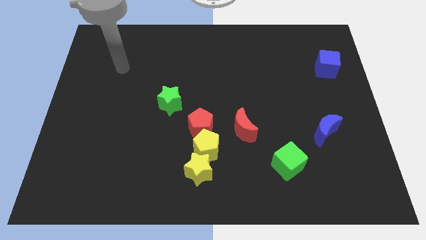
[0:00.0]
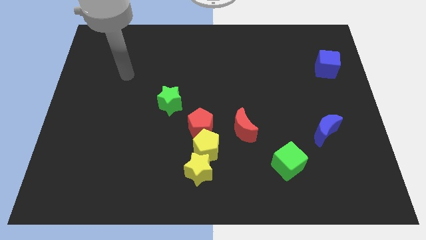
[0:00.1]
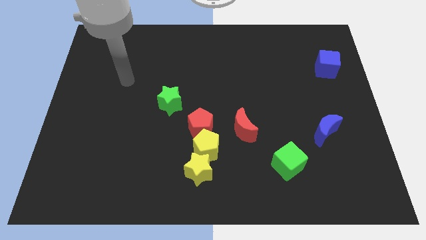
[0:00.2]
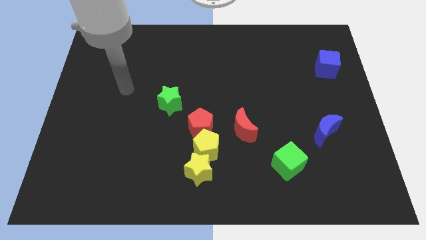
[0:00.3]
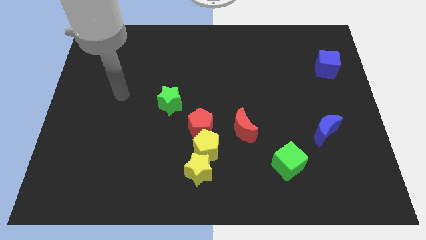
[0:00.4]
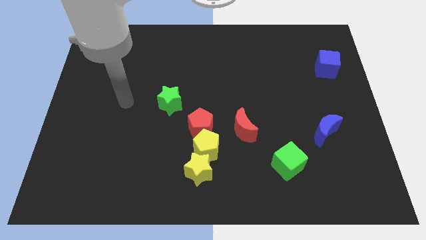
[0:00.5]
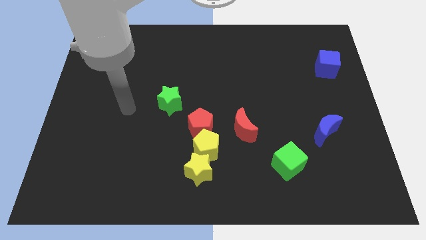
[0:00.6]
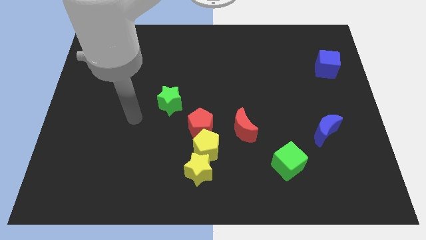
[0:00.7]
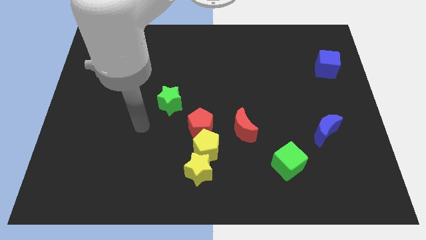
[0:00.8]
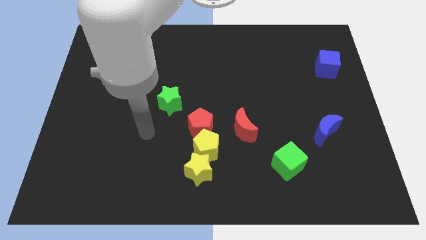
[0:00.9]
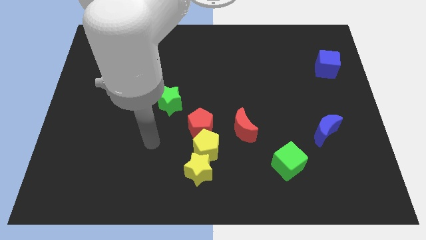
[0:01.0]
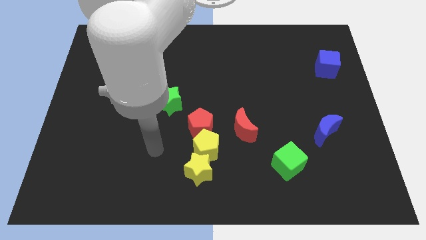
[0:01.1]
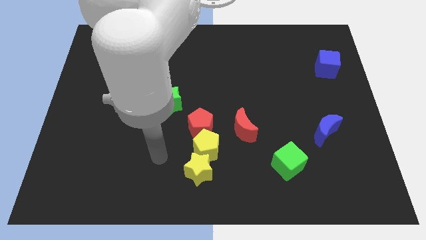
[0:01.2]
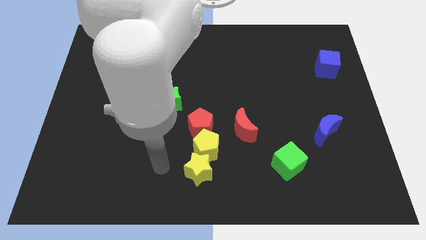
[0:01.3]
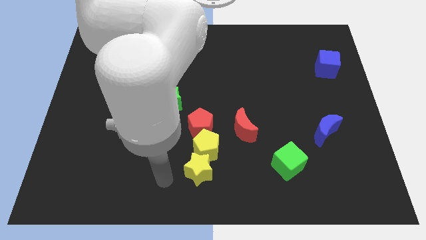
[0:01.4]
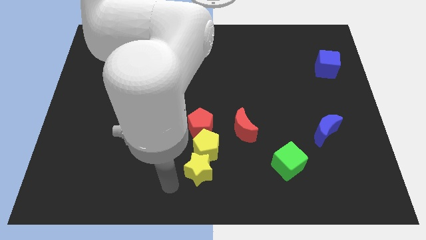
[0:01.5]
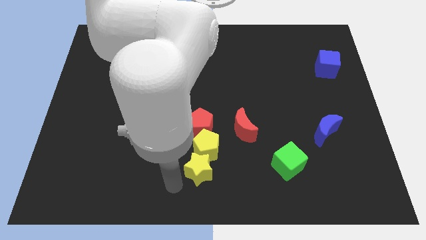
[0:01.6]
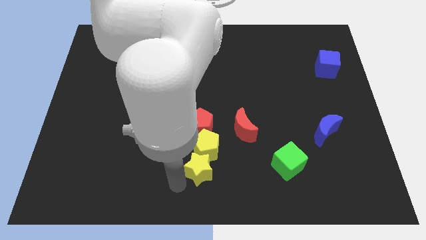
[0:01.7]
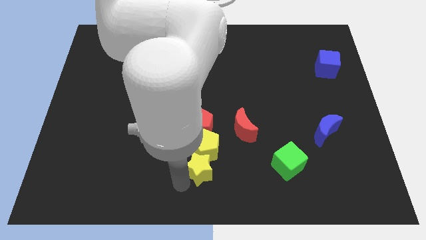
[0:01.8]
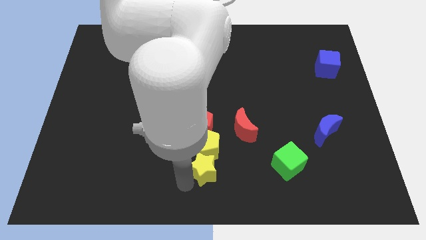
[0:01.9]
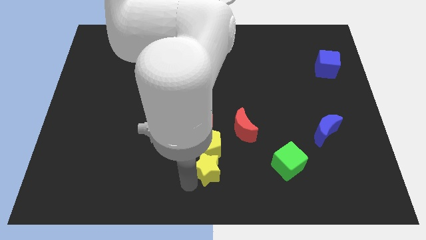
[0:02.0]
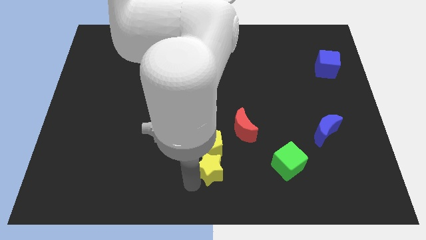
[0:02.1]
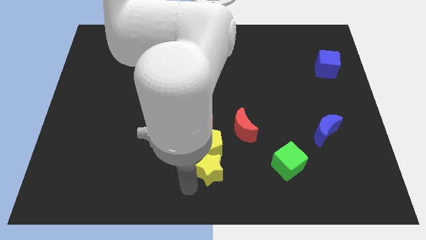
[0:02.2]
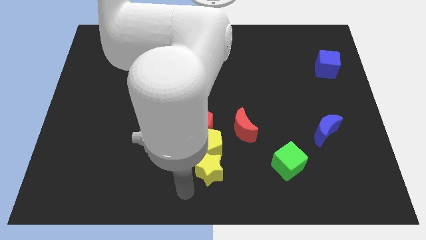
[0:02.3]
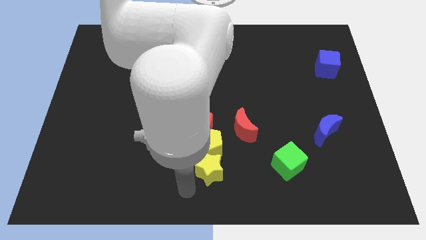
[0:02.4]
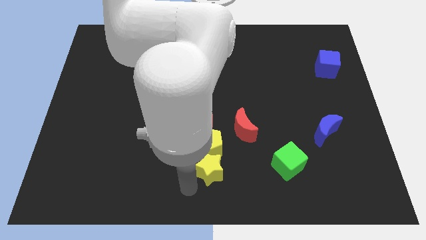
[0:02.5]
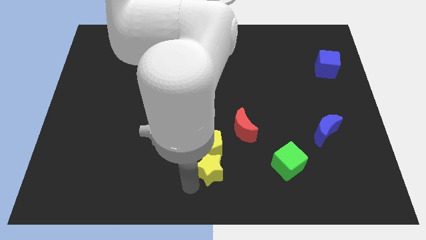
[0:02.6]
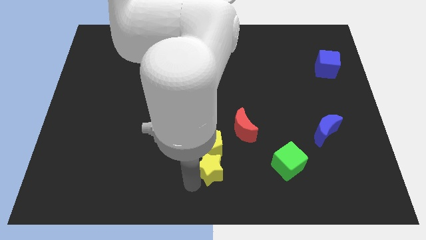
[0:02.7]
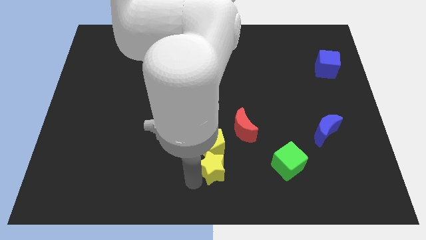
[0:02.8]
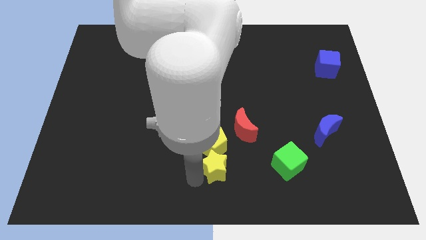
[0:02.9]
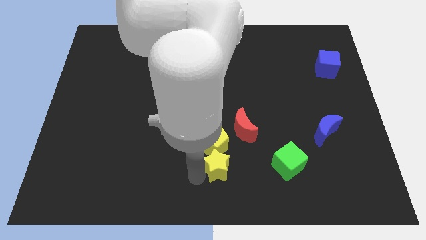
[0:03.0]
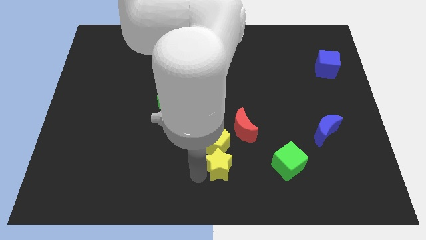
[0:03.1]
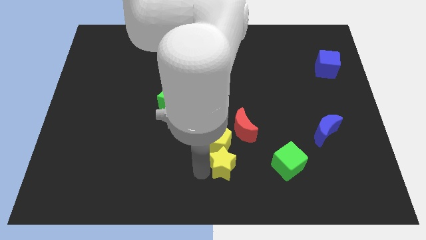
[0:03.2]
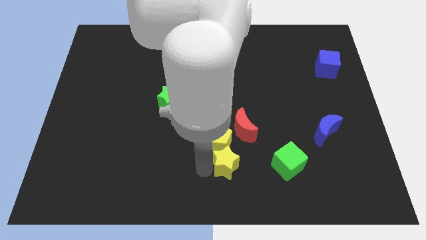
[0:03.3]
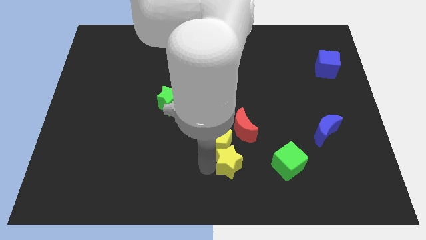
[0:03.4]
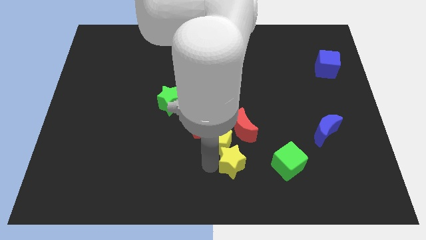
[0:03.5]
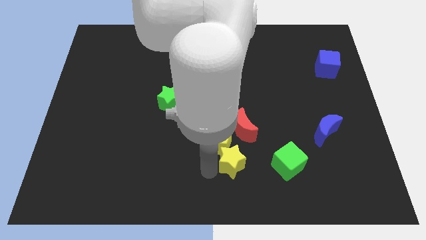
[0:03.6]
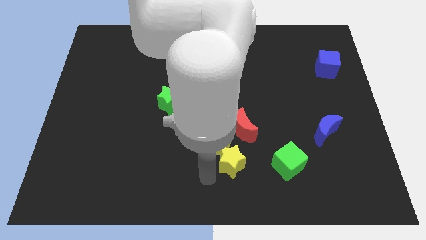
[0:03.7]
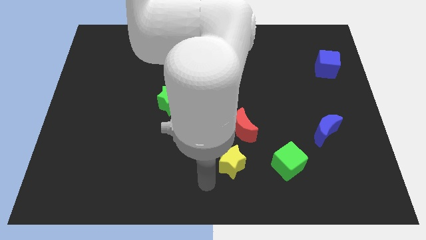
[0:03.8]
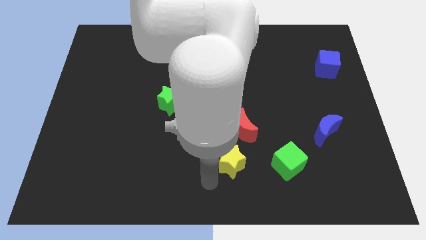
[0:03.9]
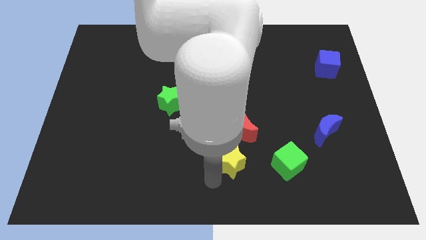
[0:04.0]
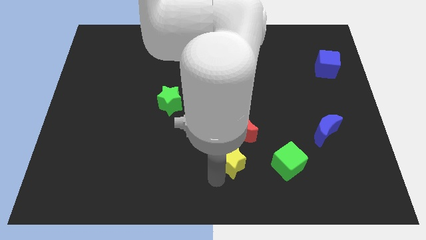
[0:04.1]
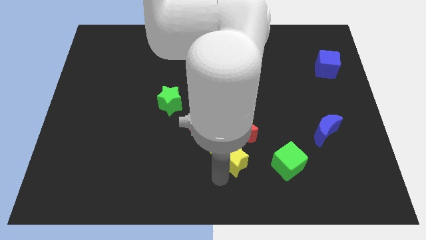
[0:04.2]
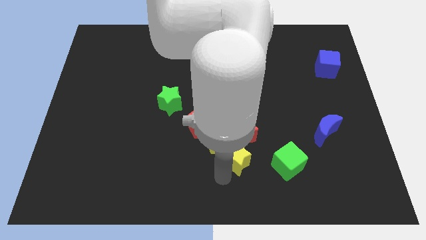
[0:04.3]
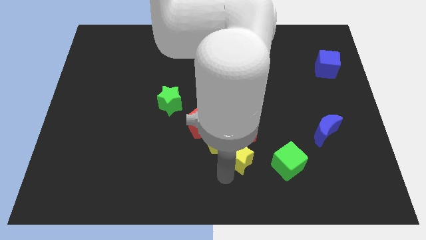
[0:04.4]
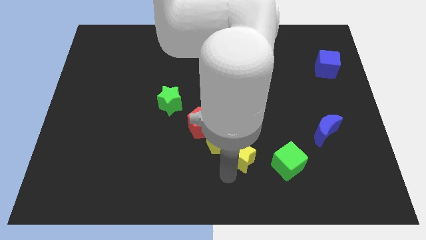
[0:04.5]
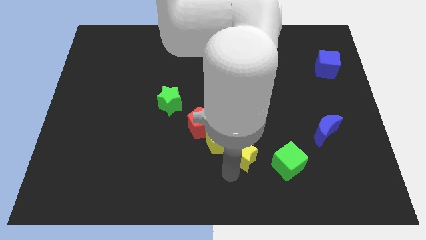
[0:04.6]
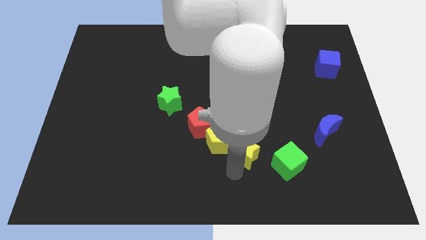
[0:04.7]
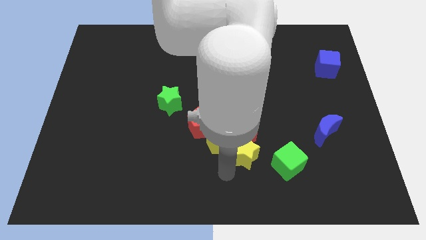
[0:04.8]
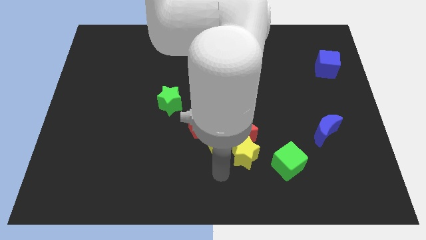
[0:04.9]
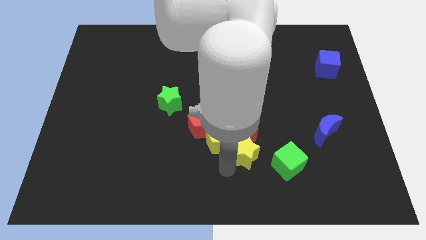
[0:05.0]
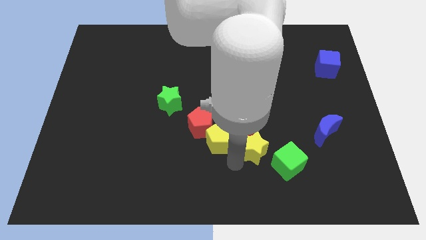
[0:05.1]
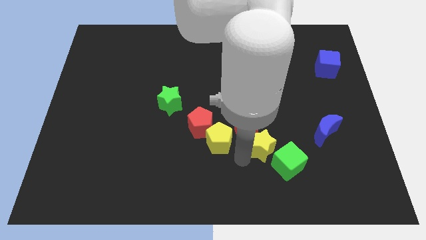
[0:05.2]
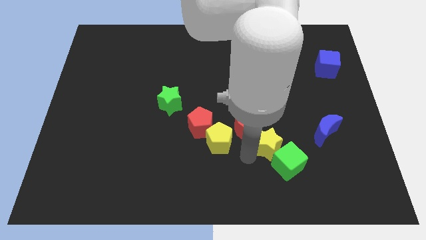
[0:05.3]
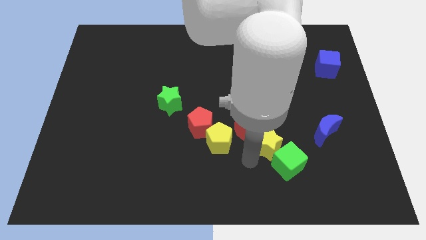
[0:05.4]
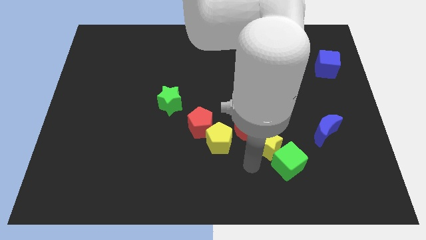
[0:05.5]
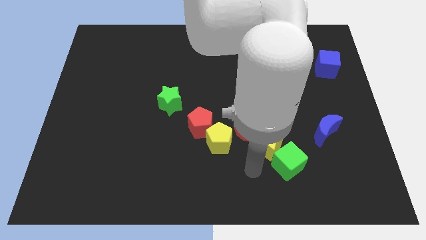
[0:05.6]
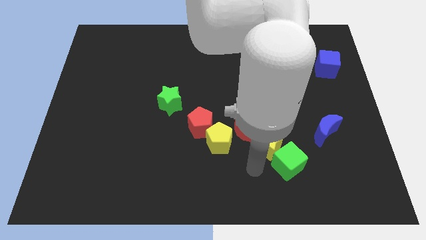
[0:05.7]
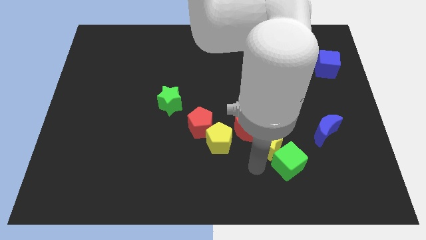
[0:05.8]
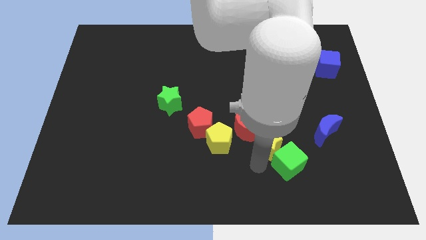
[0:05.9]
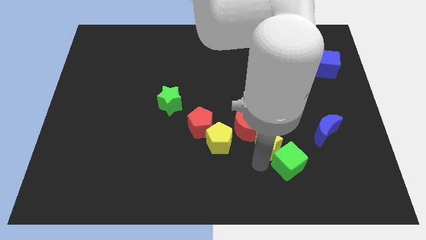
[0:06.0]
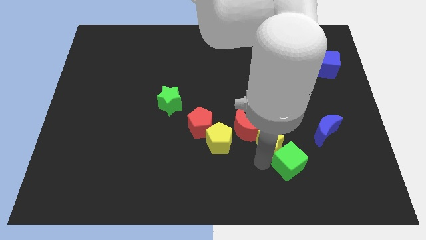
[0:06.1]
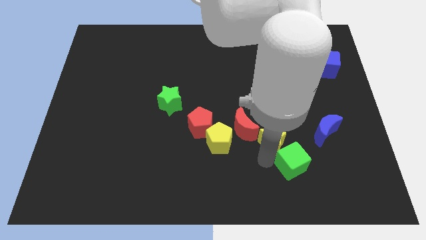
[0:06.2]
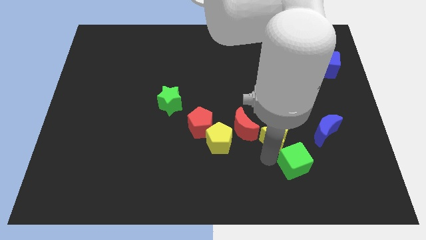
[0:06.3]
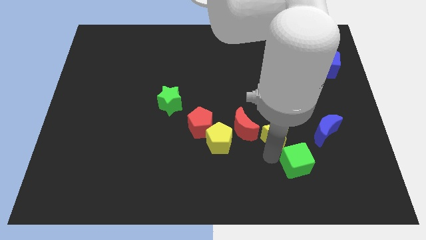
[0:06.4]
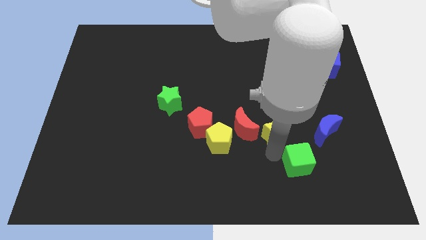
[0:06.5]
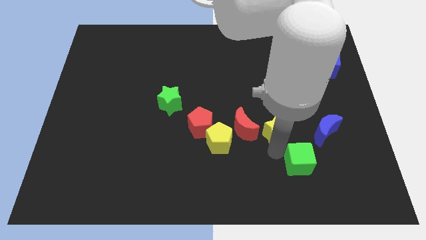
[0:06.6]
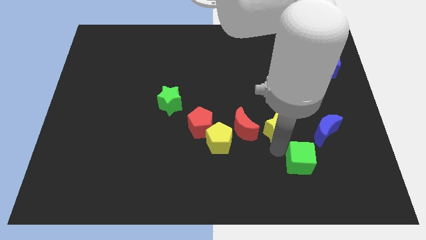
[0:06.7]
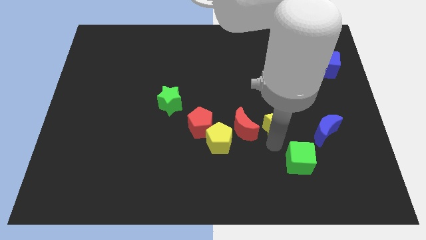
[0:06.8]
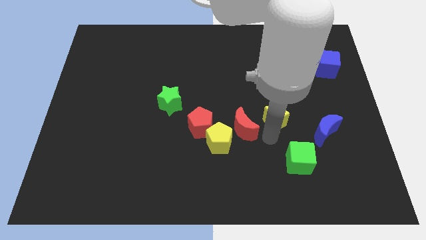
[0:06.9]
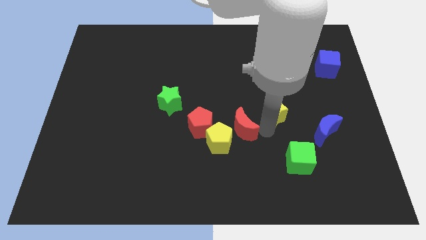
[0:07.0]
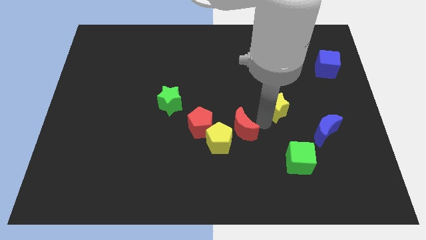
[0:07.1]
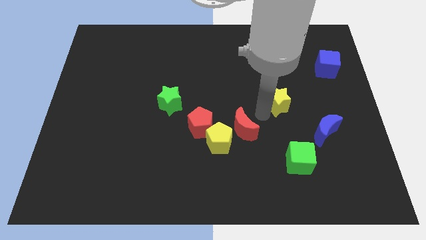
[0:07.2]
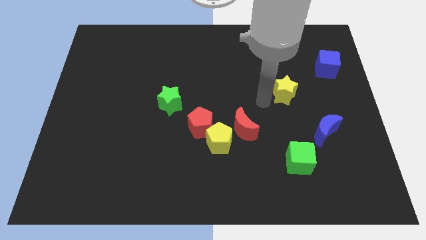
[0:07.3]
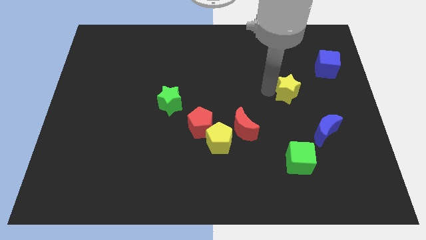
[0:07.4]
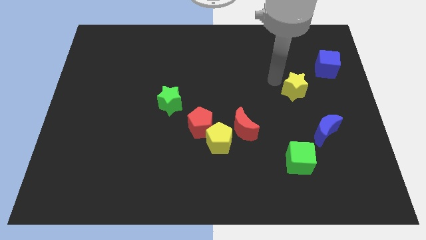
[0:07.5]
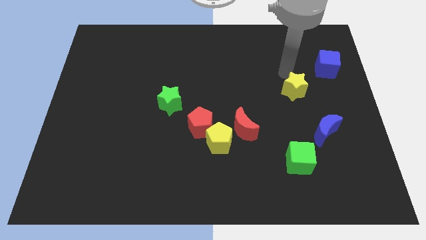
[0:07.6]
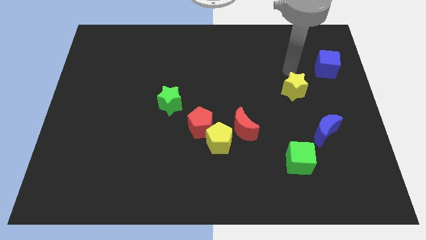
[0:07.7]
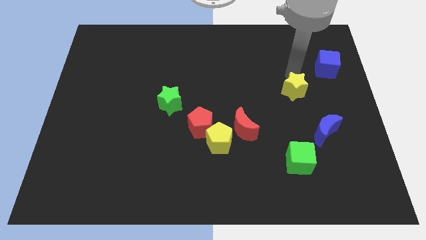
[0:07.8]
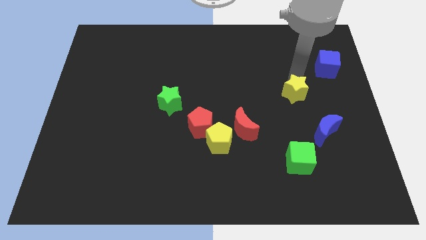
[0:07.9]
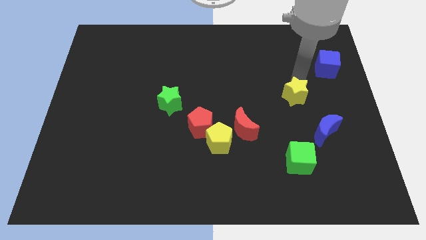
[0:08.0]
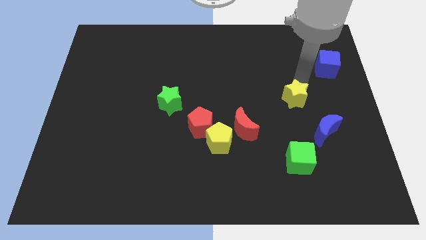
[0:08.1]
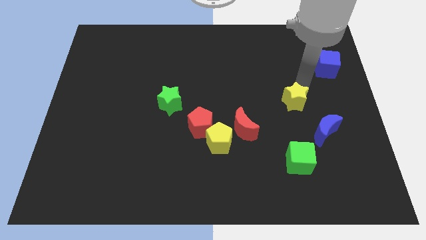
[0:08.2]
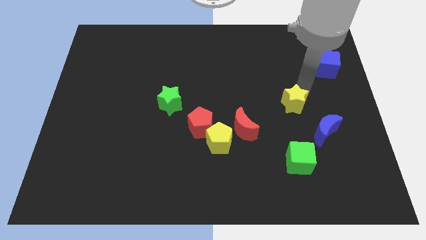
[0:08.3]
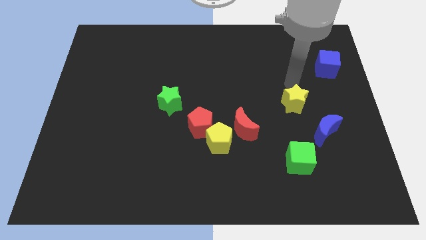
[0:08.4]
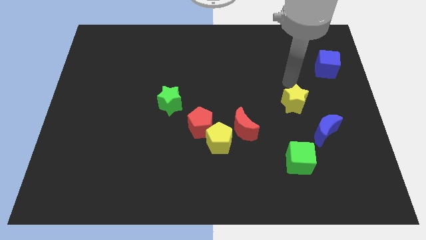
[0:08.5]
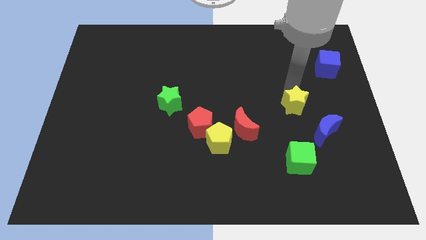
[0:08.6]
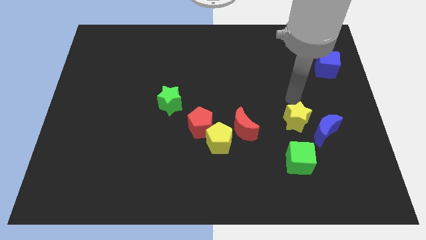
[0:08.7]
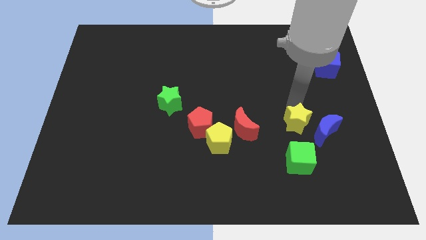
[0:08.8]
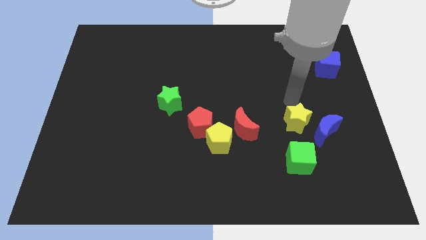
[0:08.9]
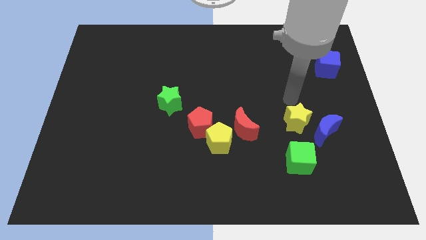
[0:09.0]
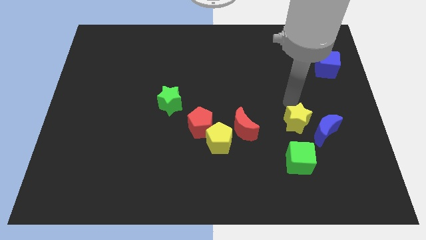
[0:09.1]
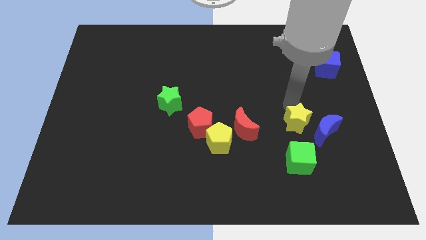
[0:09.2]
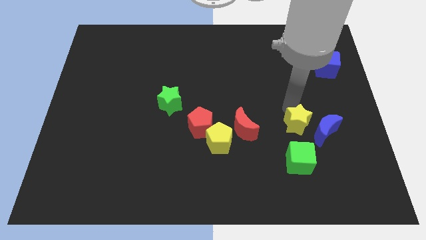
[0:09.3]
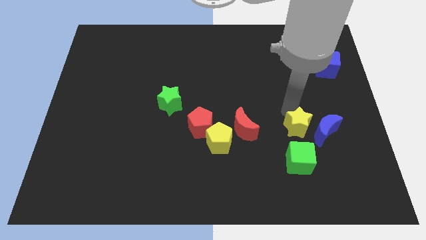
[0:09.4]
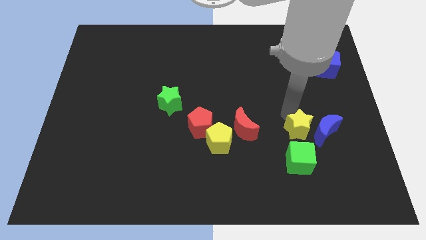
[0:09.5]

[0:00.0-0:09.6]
move the yellow star to the bottom left of the blue moon
